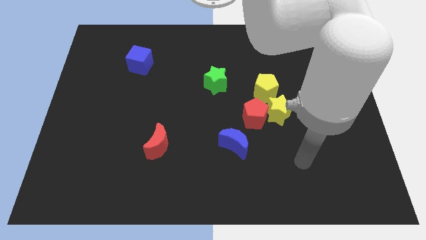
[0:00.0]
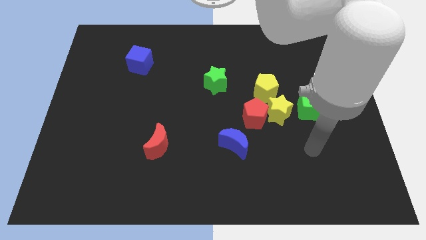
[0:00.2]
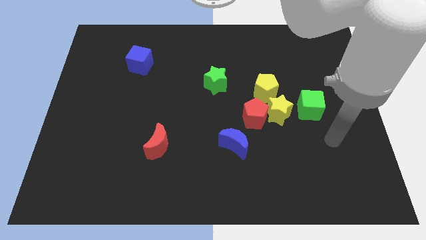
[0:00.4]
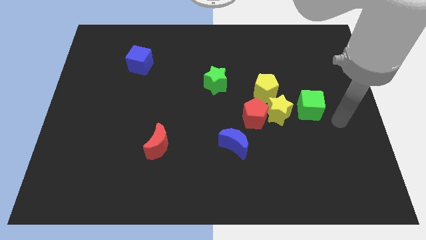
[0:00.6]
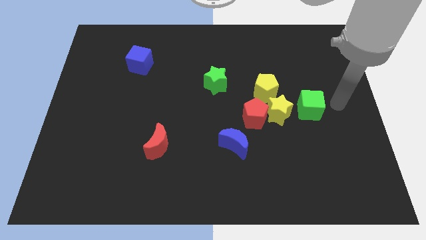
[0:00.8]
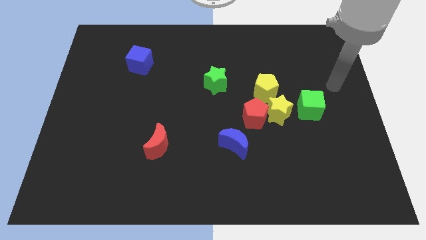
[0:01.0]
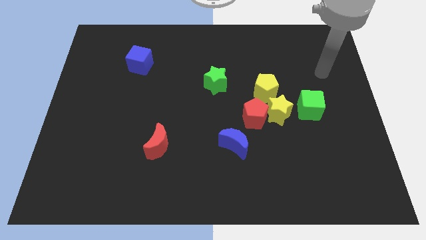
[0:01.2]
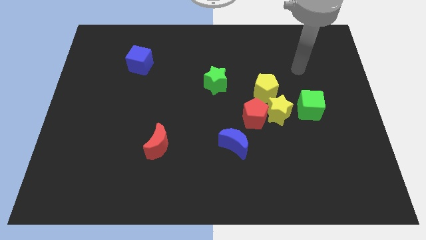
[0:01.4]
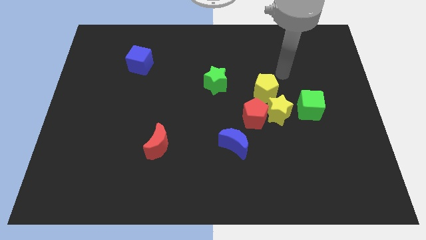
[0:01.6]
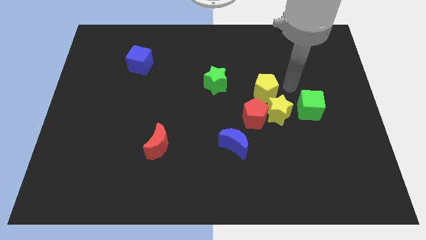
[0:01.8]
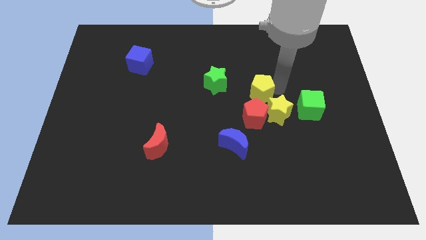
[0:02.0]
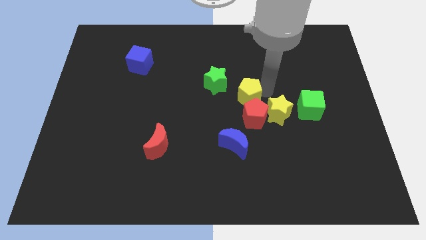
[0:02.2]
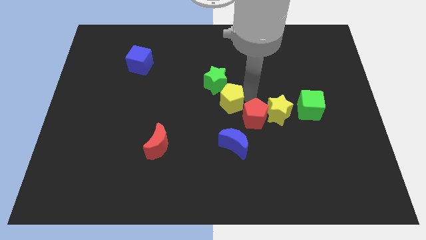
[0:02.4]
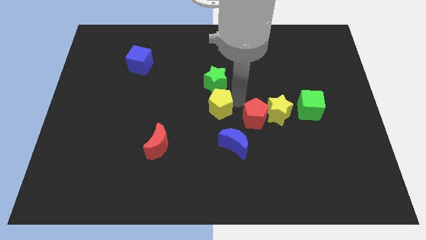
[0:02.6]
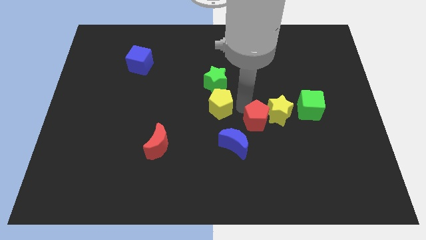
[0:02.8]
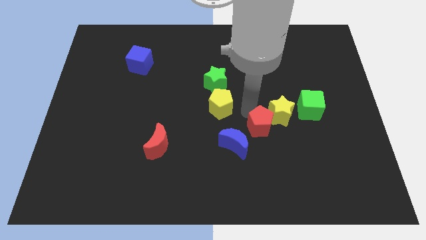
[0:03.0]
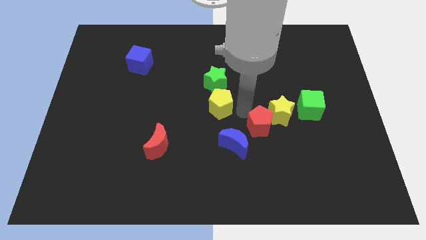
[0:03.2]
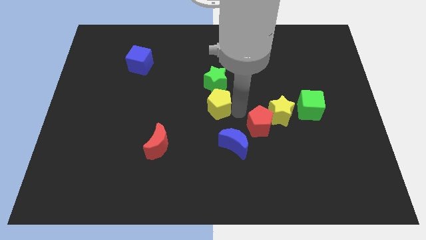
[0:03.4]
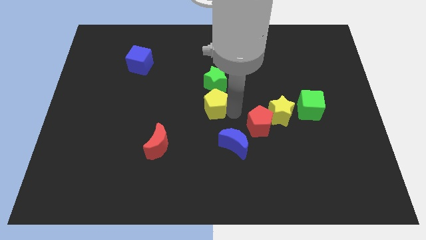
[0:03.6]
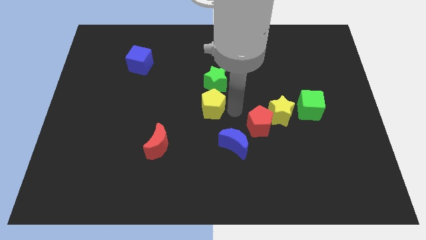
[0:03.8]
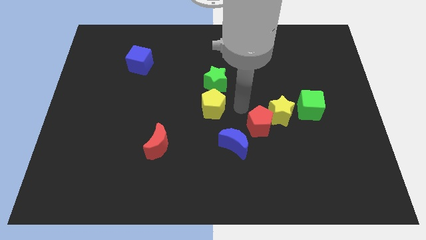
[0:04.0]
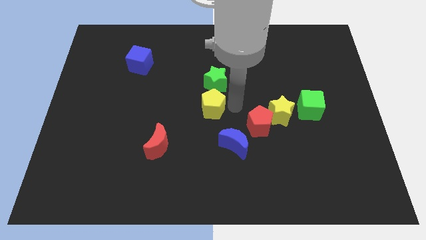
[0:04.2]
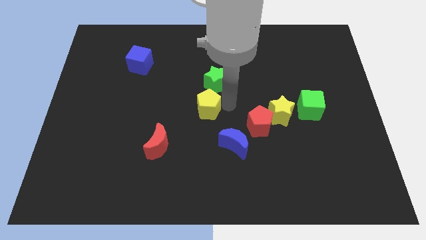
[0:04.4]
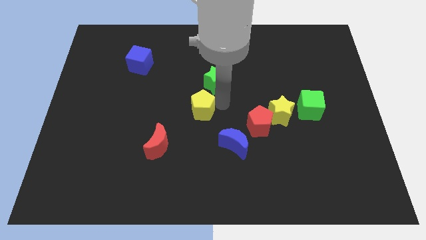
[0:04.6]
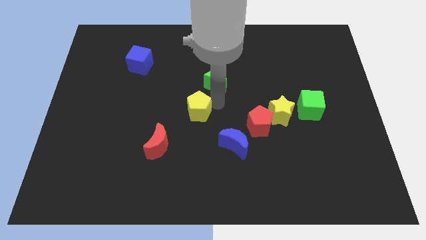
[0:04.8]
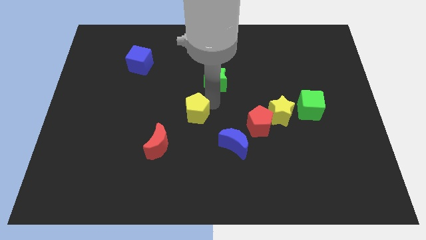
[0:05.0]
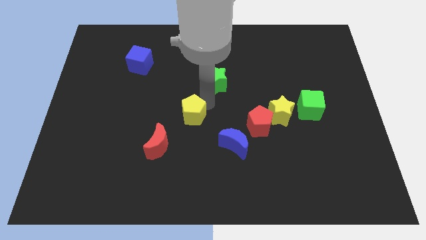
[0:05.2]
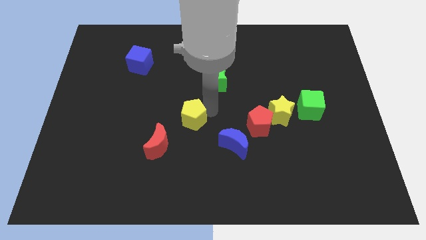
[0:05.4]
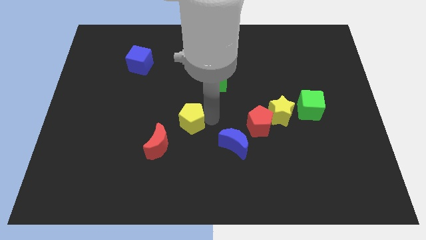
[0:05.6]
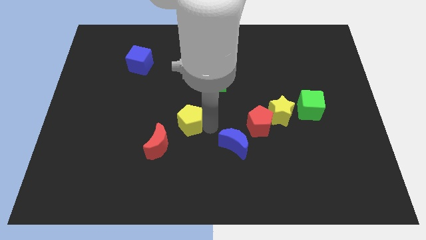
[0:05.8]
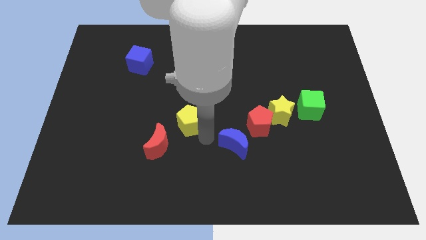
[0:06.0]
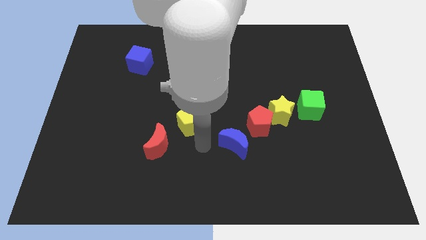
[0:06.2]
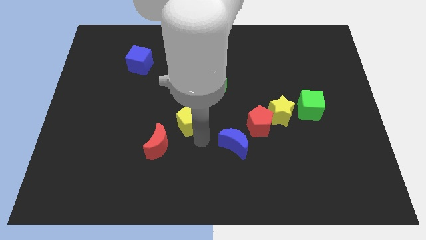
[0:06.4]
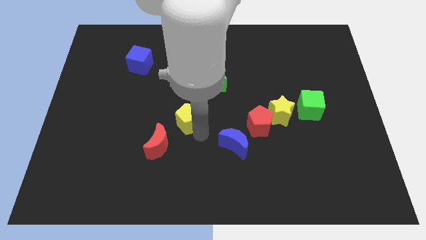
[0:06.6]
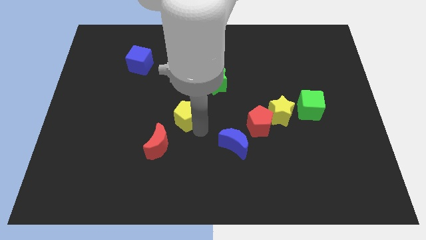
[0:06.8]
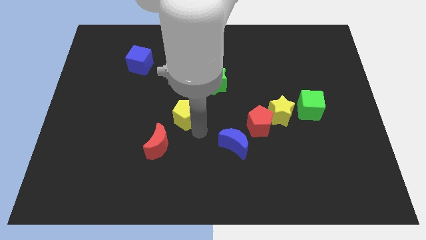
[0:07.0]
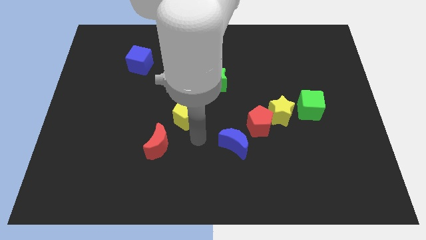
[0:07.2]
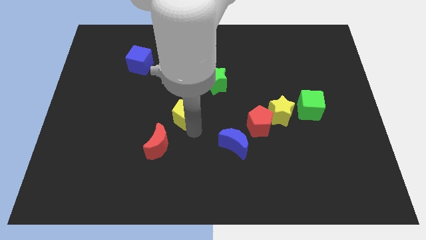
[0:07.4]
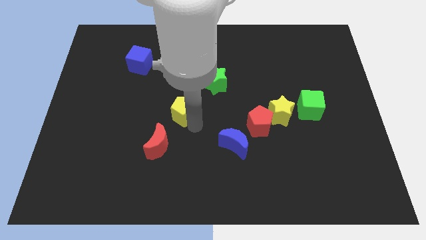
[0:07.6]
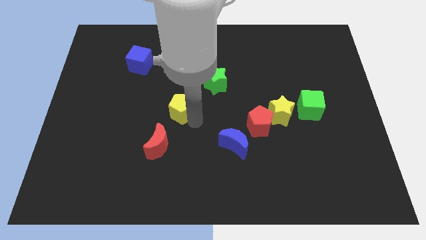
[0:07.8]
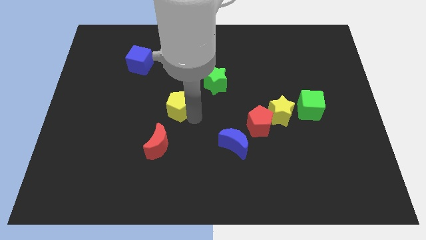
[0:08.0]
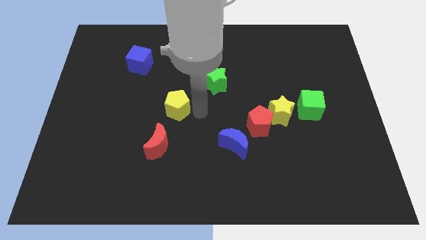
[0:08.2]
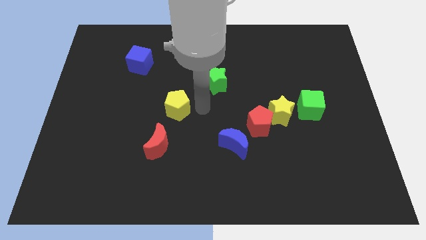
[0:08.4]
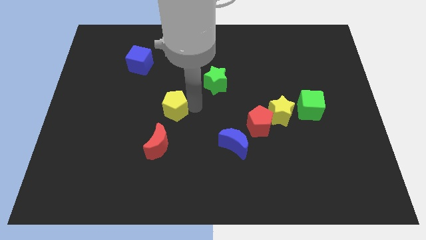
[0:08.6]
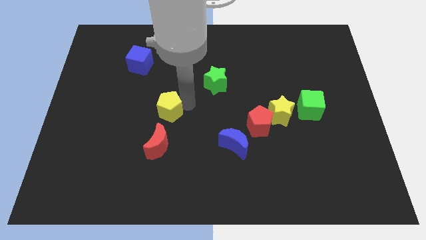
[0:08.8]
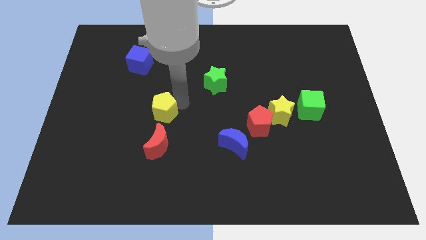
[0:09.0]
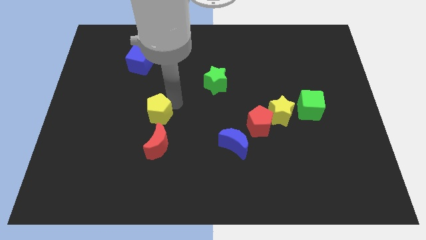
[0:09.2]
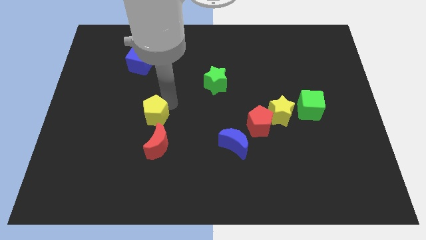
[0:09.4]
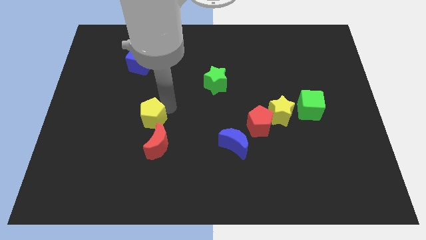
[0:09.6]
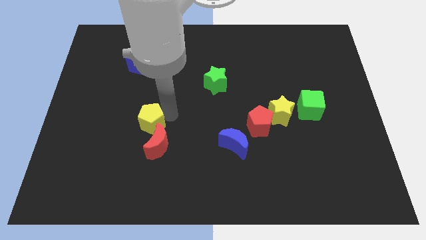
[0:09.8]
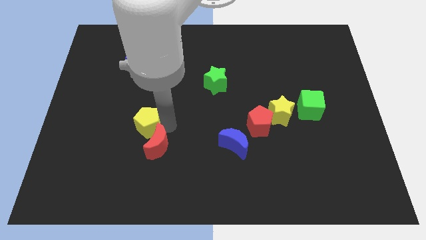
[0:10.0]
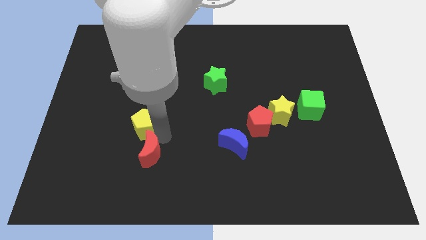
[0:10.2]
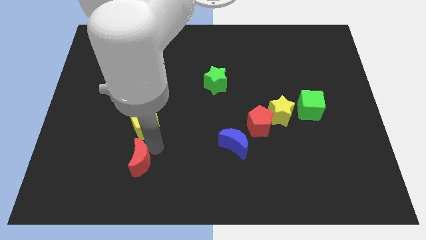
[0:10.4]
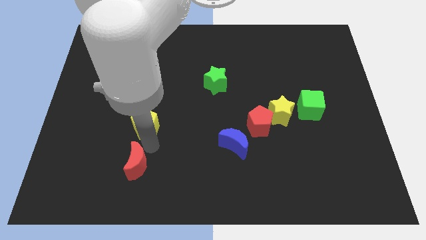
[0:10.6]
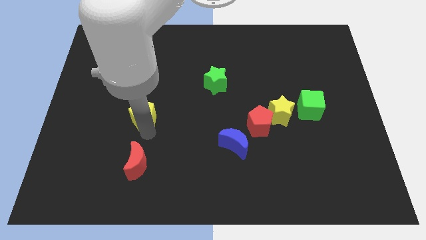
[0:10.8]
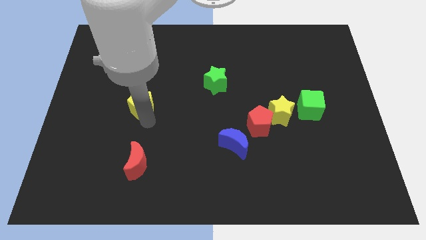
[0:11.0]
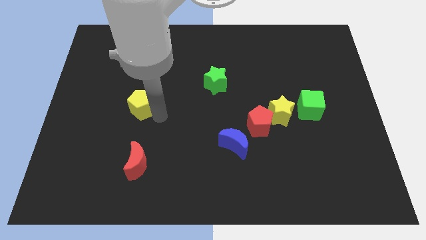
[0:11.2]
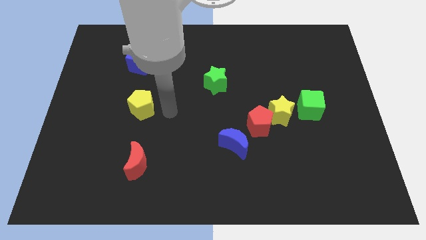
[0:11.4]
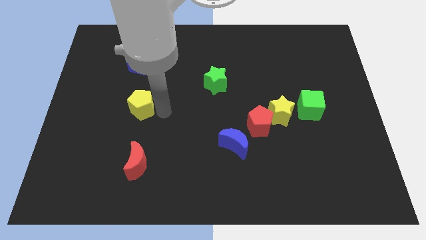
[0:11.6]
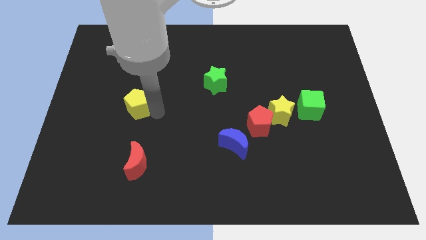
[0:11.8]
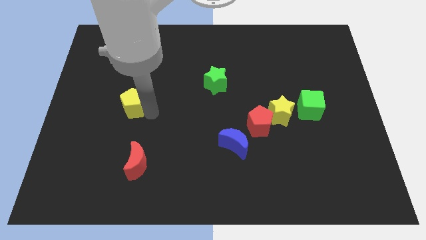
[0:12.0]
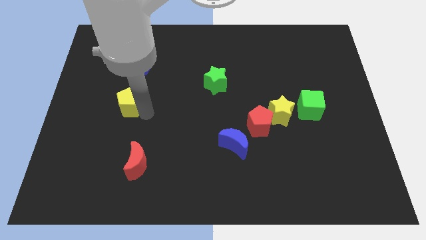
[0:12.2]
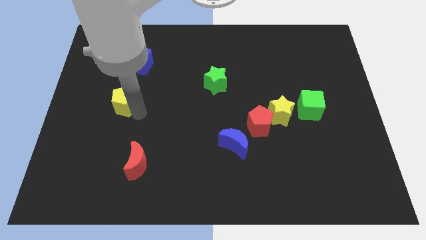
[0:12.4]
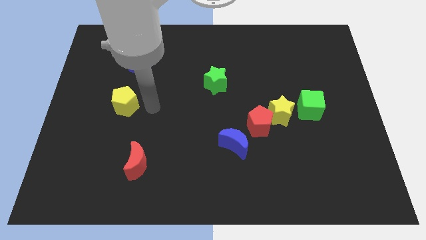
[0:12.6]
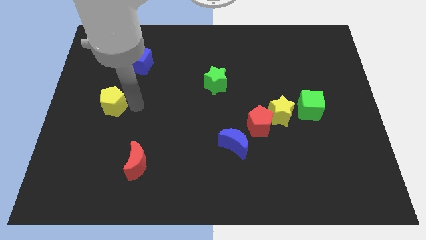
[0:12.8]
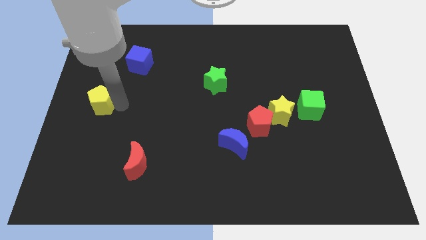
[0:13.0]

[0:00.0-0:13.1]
move the yellow pentagon to the left side of the board
